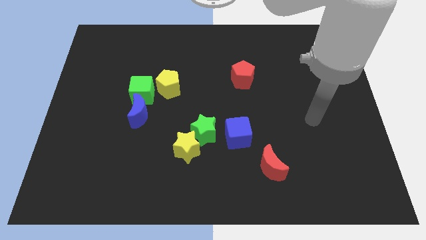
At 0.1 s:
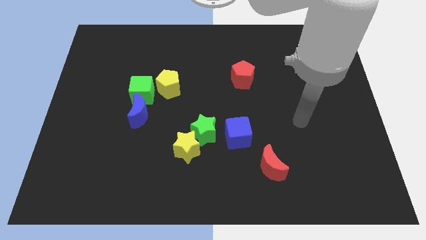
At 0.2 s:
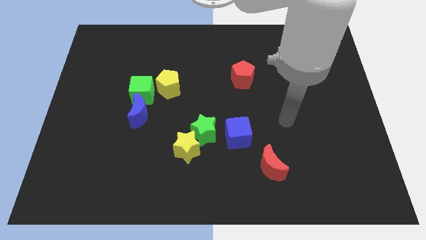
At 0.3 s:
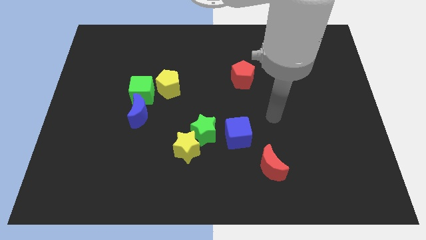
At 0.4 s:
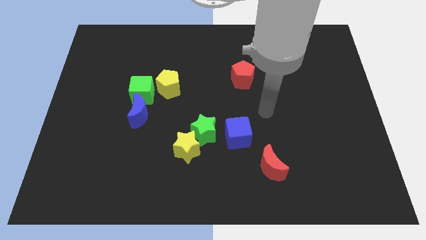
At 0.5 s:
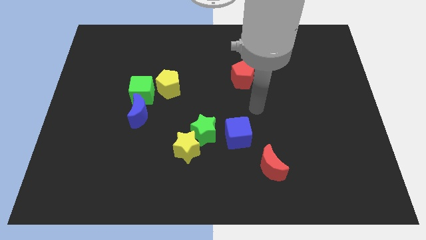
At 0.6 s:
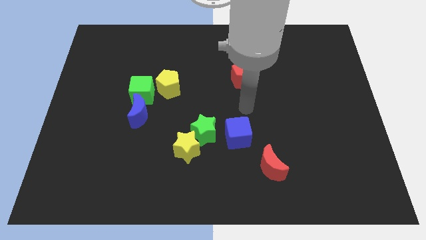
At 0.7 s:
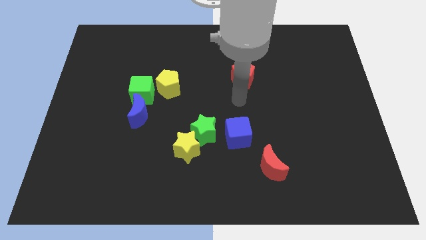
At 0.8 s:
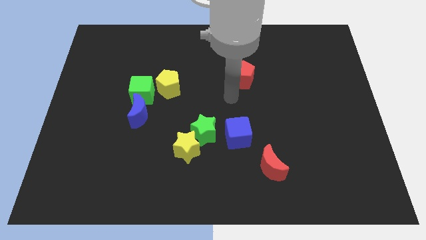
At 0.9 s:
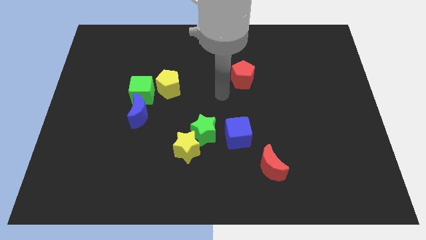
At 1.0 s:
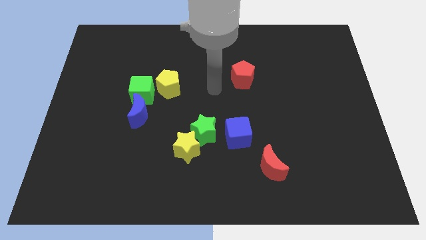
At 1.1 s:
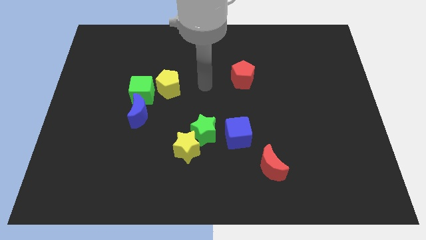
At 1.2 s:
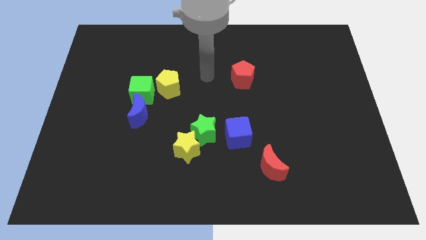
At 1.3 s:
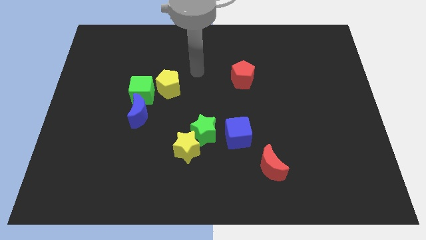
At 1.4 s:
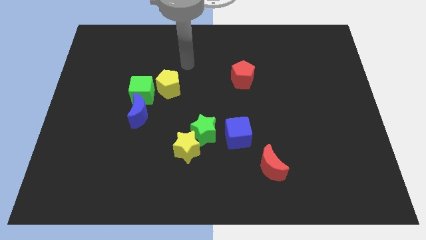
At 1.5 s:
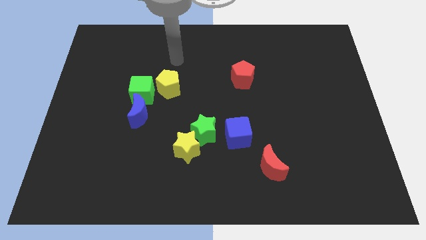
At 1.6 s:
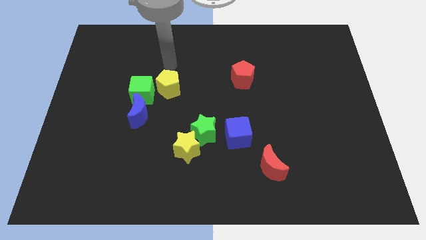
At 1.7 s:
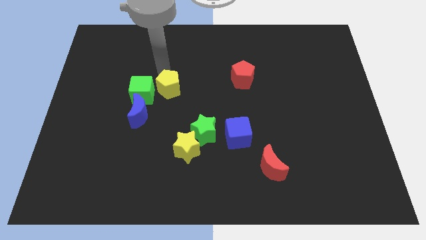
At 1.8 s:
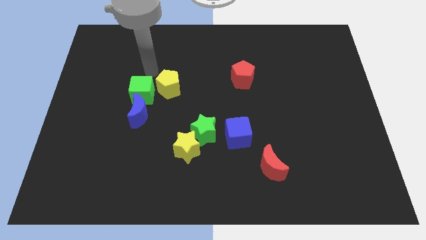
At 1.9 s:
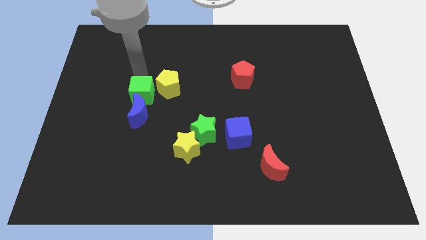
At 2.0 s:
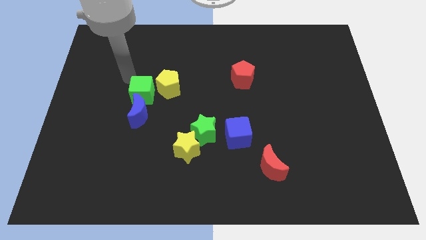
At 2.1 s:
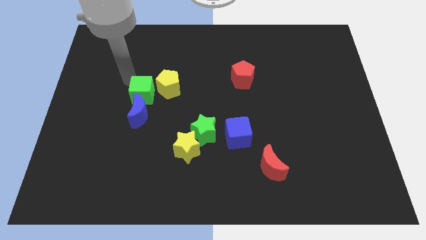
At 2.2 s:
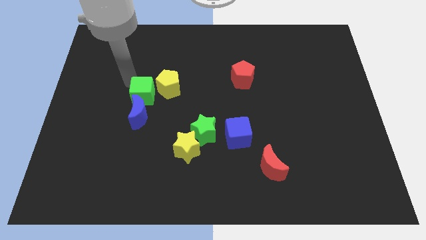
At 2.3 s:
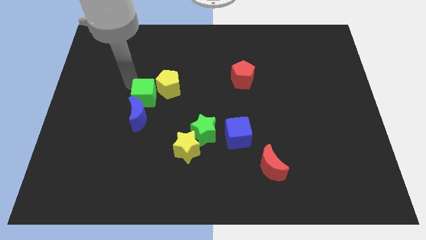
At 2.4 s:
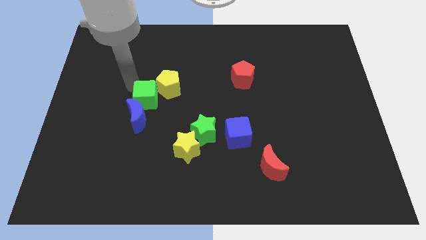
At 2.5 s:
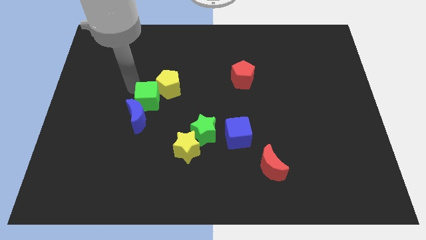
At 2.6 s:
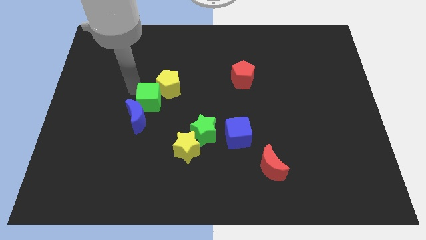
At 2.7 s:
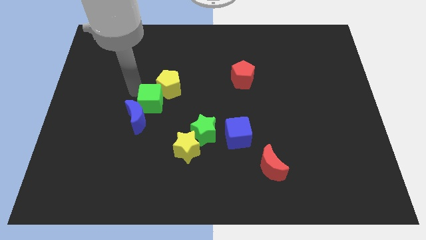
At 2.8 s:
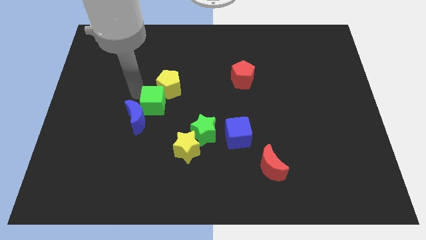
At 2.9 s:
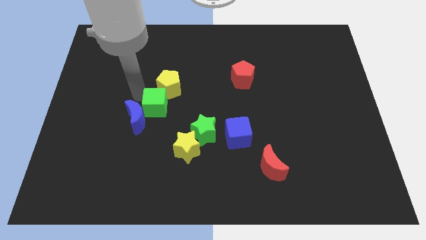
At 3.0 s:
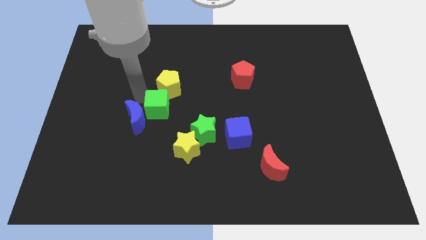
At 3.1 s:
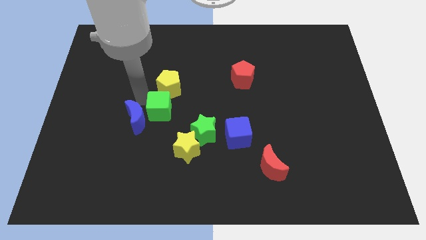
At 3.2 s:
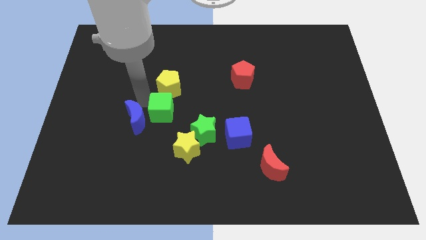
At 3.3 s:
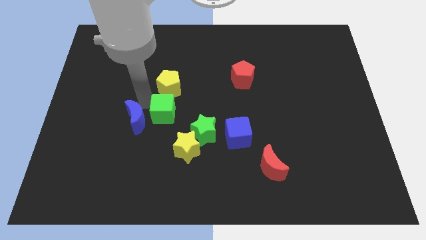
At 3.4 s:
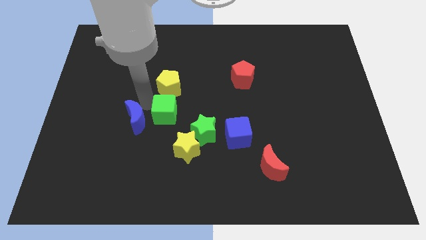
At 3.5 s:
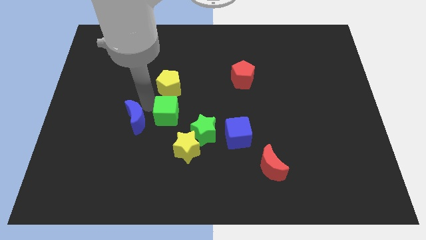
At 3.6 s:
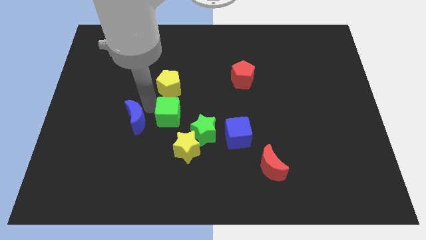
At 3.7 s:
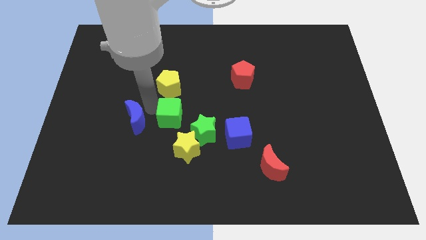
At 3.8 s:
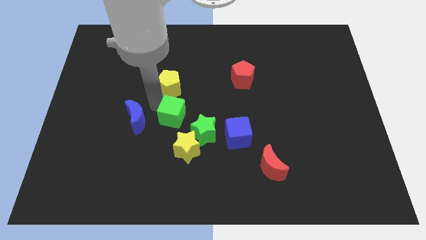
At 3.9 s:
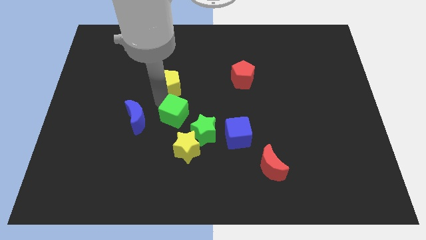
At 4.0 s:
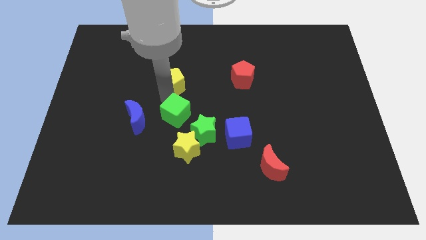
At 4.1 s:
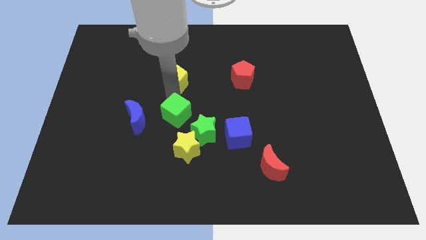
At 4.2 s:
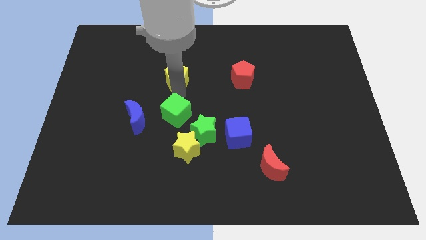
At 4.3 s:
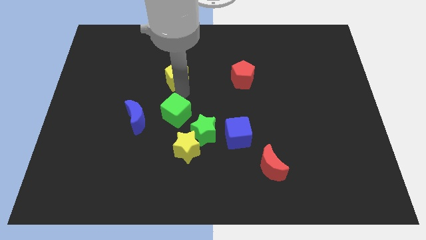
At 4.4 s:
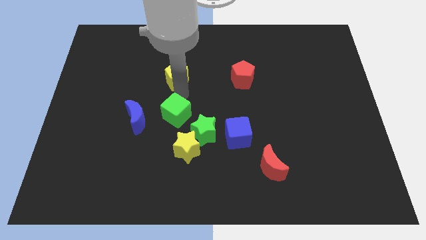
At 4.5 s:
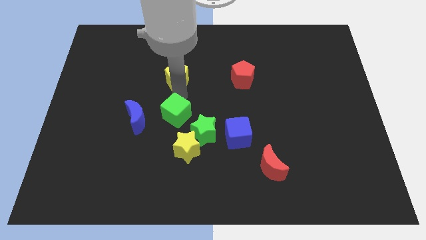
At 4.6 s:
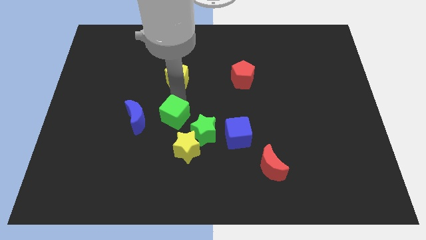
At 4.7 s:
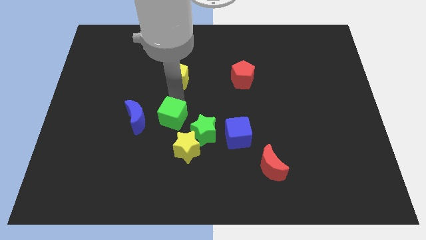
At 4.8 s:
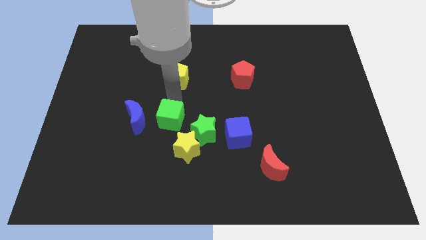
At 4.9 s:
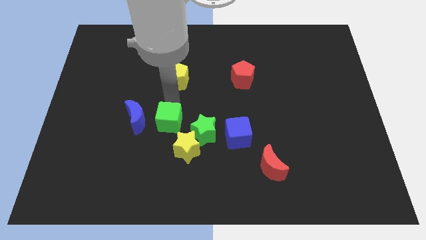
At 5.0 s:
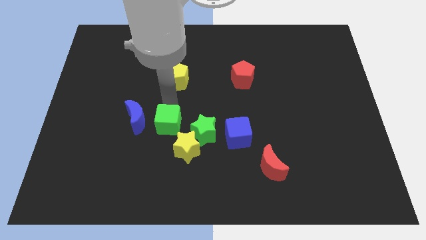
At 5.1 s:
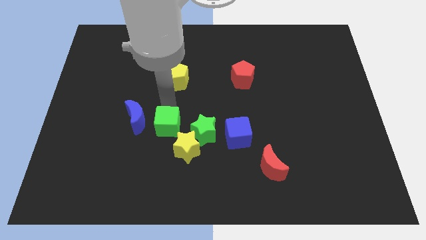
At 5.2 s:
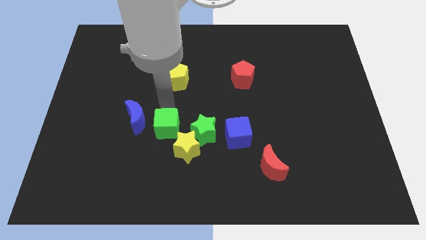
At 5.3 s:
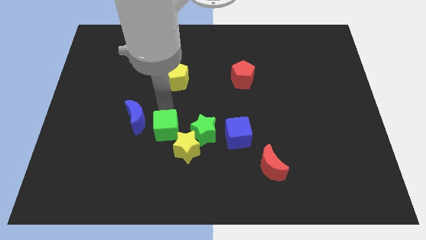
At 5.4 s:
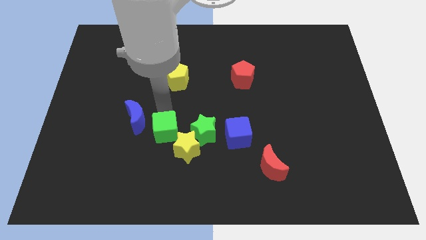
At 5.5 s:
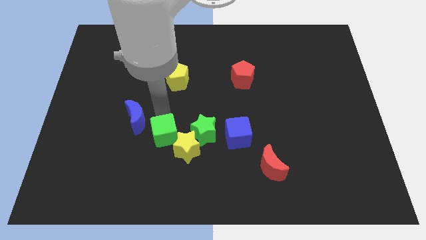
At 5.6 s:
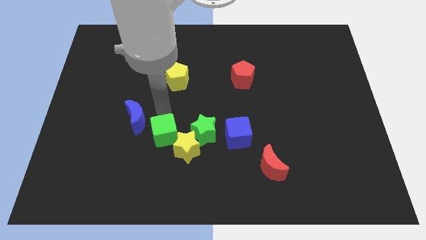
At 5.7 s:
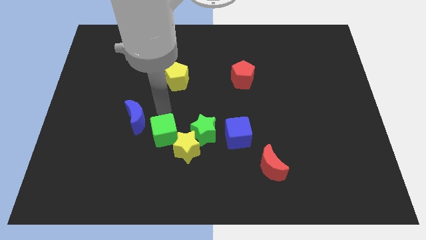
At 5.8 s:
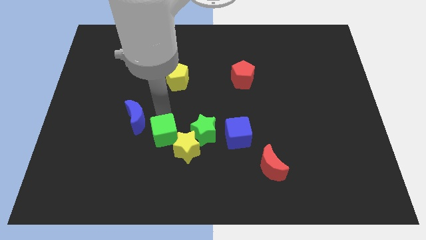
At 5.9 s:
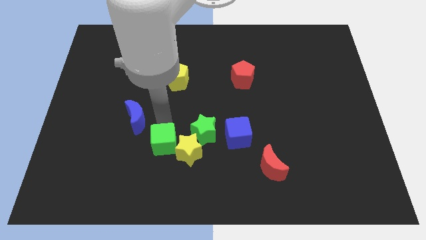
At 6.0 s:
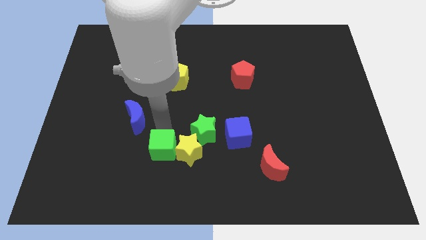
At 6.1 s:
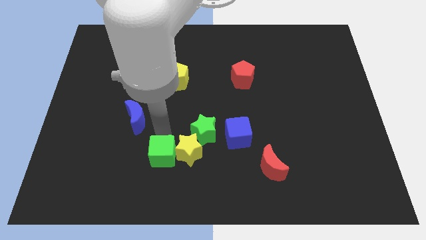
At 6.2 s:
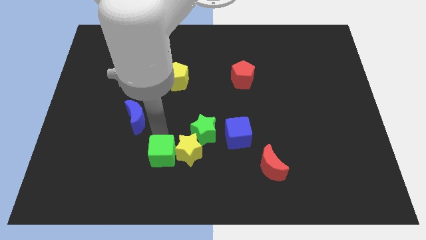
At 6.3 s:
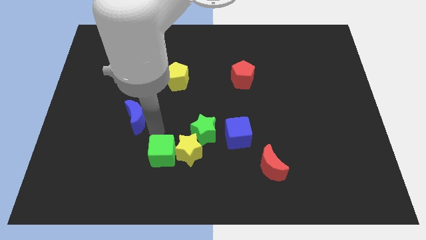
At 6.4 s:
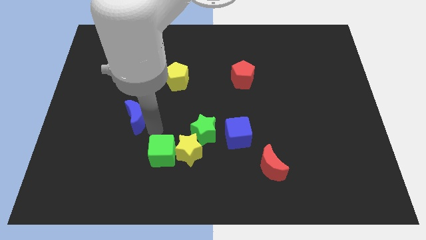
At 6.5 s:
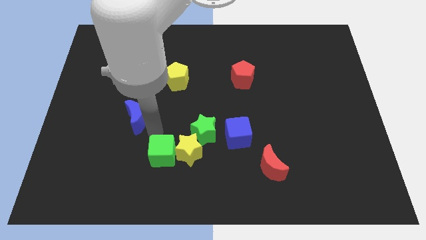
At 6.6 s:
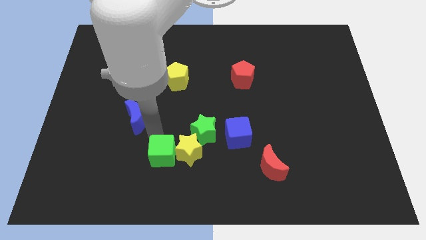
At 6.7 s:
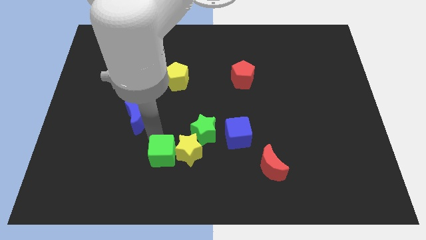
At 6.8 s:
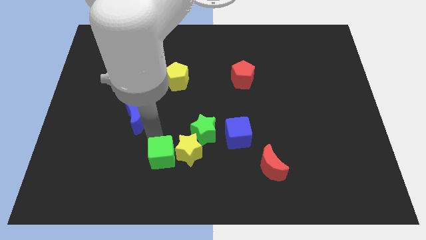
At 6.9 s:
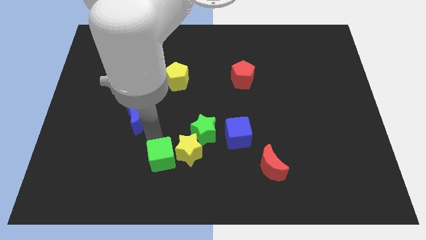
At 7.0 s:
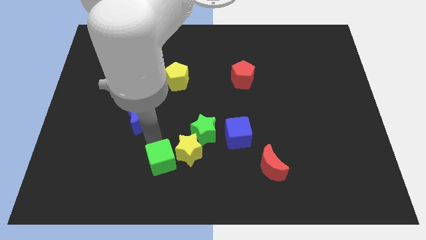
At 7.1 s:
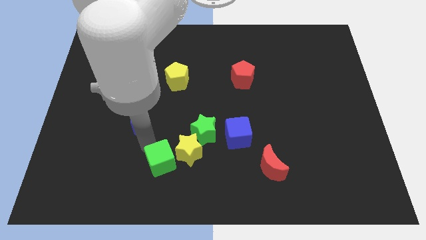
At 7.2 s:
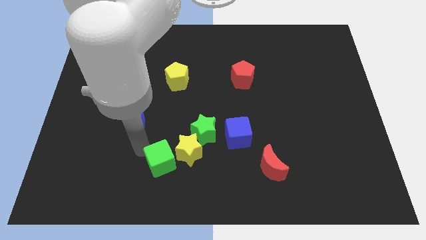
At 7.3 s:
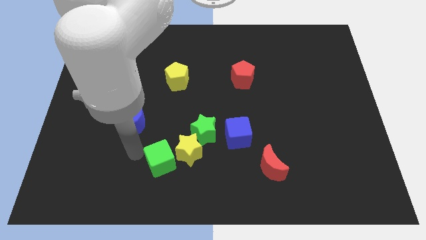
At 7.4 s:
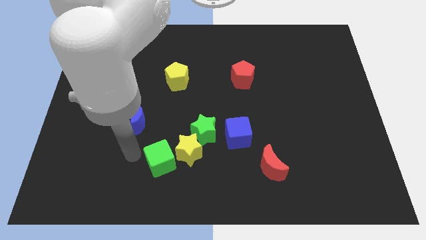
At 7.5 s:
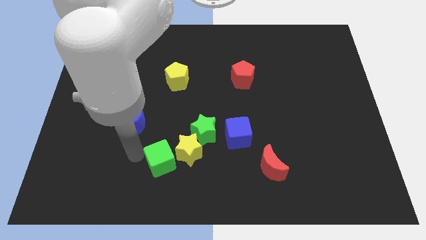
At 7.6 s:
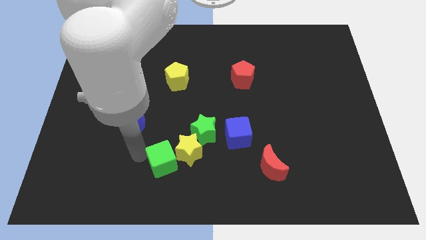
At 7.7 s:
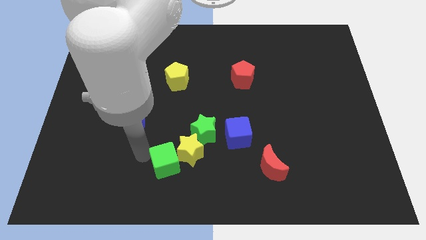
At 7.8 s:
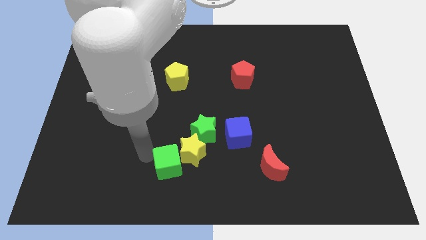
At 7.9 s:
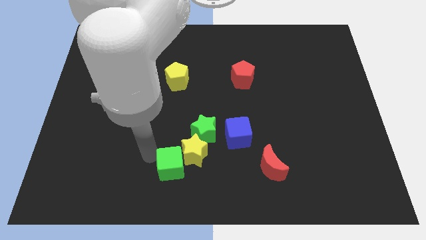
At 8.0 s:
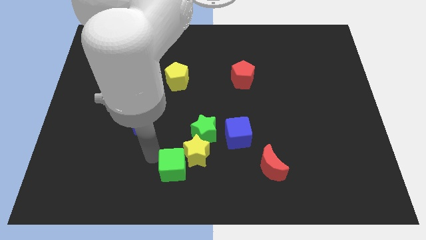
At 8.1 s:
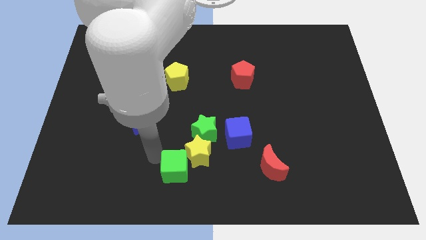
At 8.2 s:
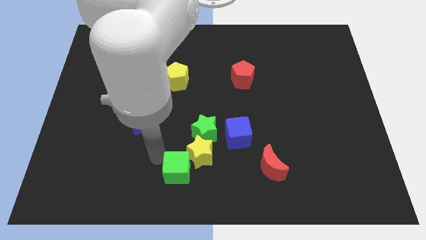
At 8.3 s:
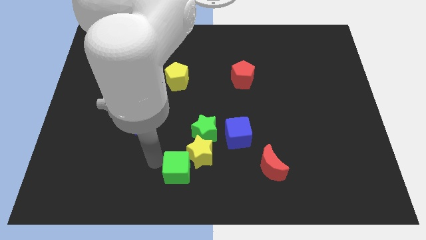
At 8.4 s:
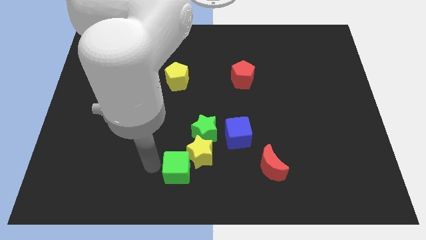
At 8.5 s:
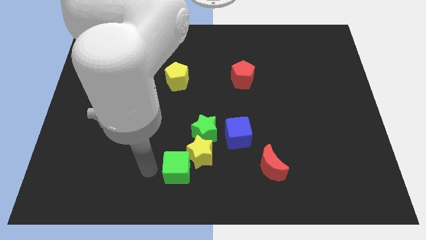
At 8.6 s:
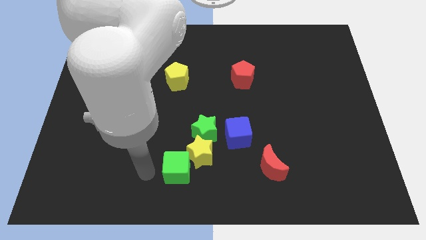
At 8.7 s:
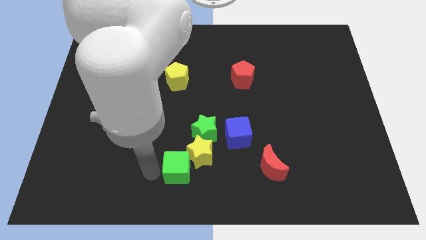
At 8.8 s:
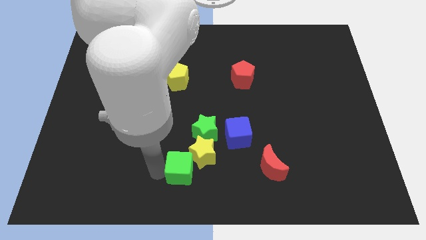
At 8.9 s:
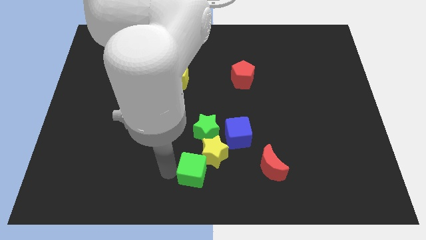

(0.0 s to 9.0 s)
move the green cube left of the red moon
